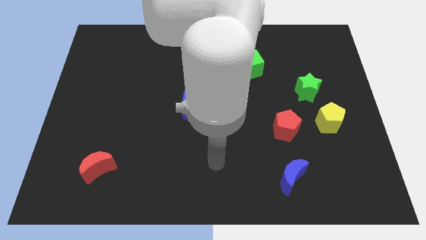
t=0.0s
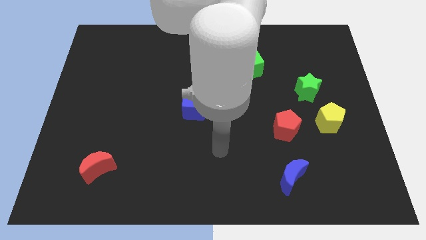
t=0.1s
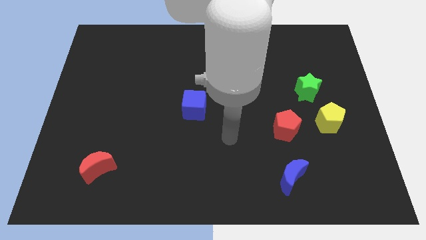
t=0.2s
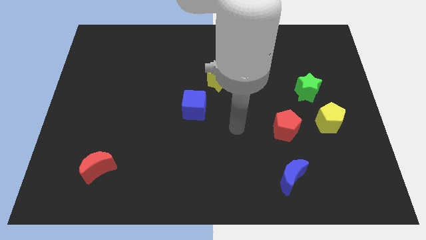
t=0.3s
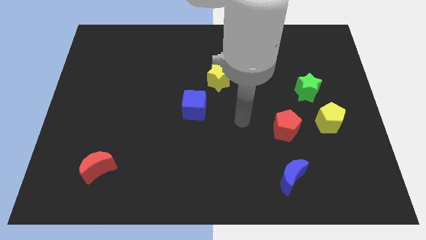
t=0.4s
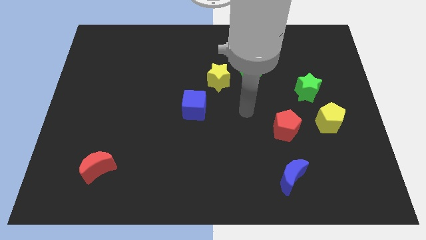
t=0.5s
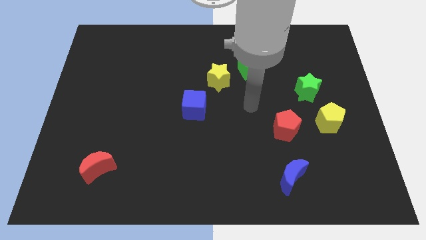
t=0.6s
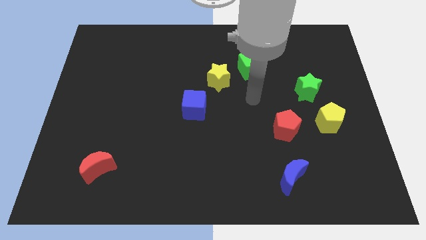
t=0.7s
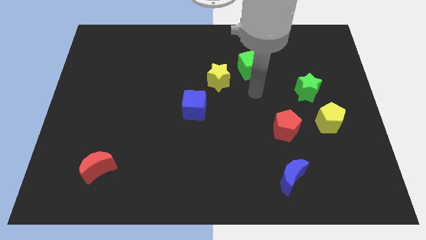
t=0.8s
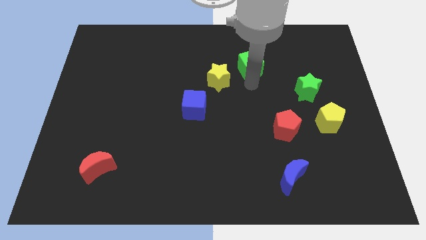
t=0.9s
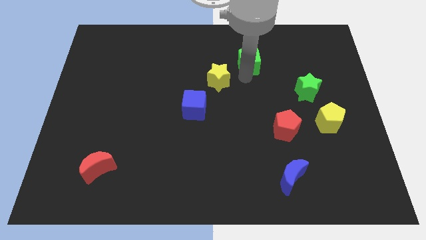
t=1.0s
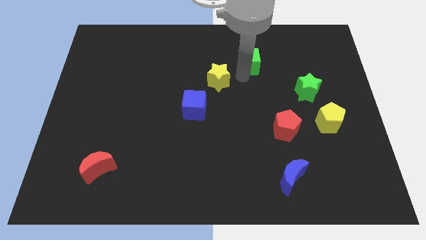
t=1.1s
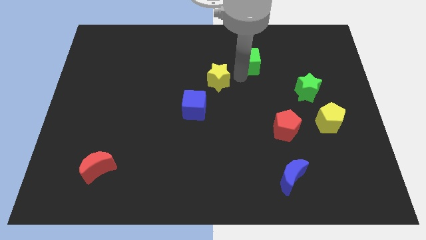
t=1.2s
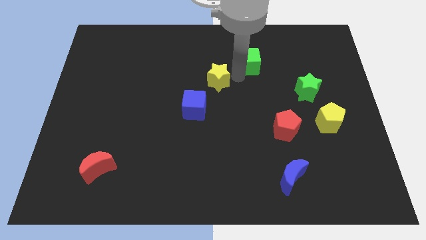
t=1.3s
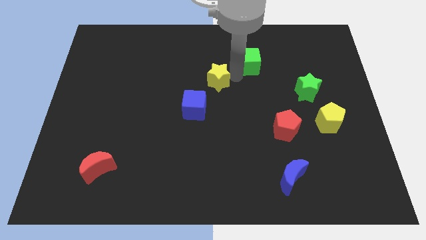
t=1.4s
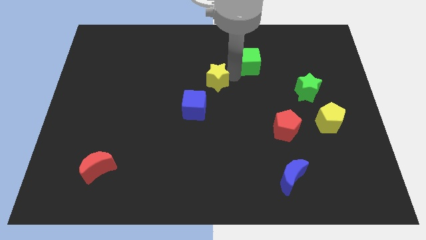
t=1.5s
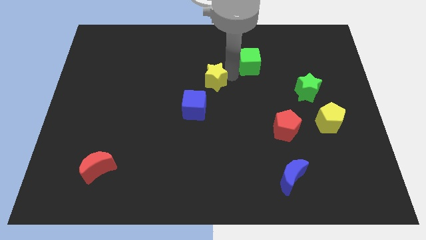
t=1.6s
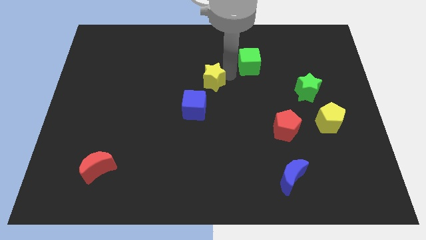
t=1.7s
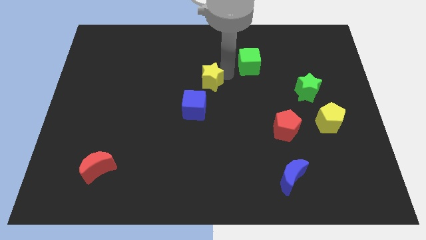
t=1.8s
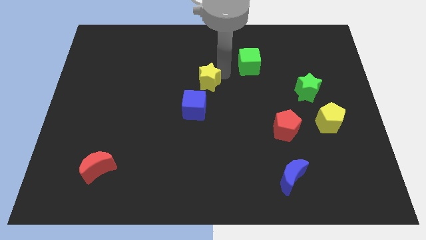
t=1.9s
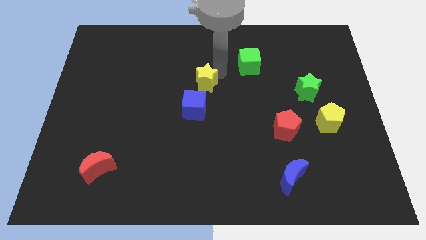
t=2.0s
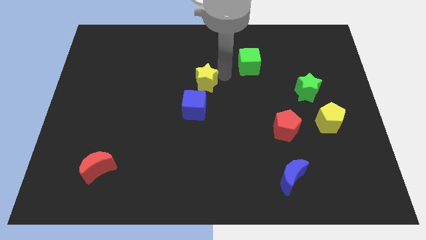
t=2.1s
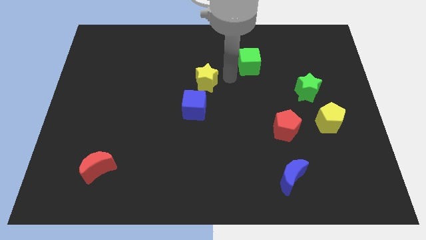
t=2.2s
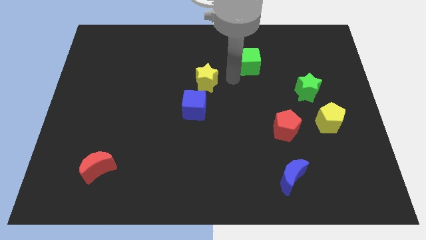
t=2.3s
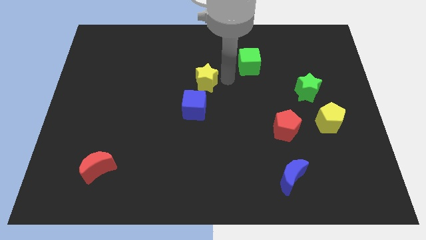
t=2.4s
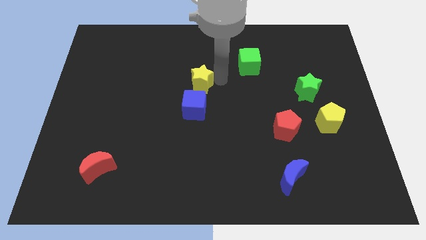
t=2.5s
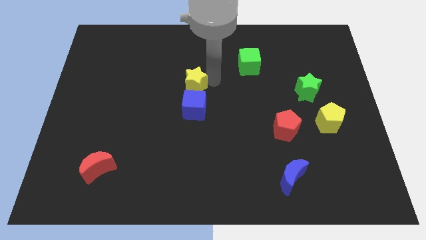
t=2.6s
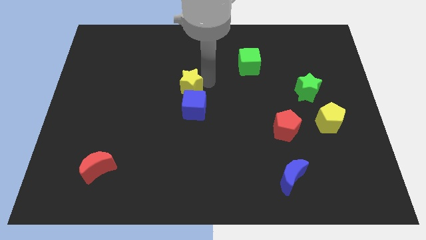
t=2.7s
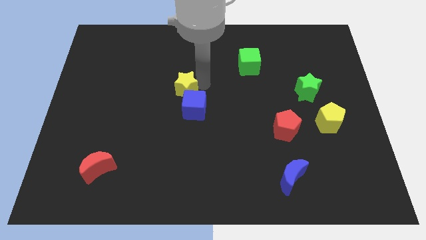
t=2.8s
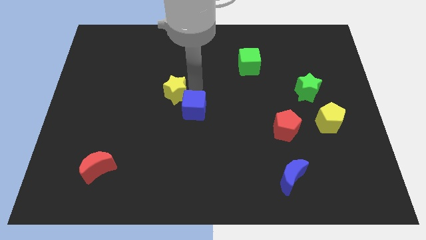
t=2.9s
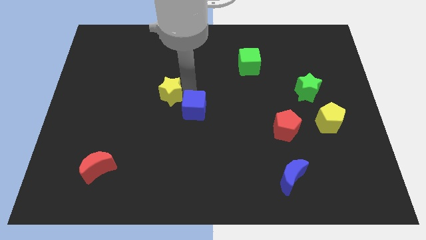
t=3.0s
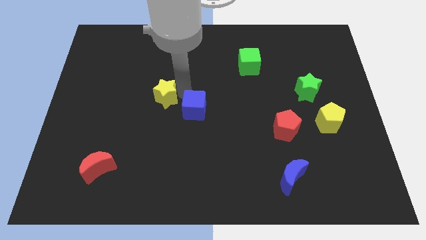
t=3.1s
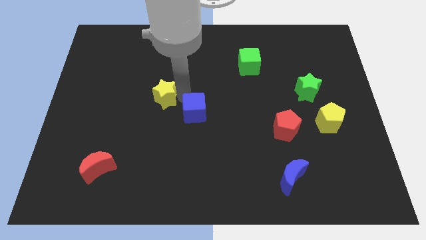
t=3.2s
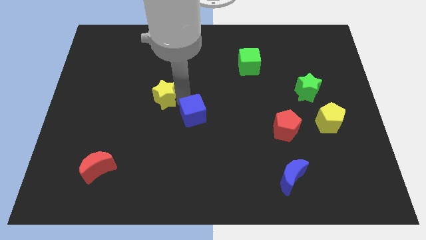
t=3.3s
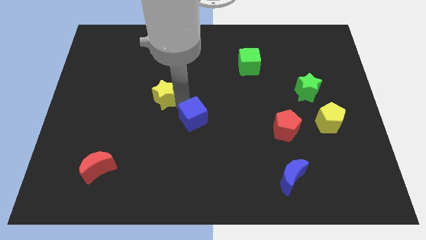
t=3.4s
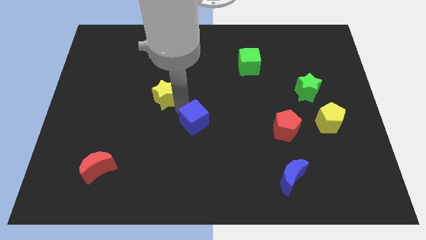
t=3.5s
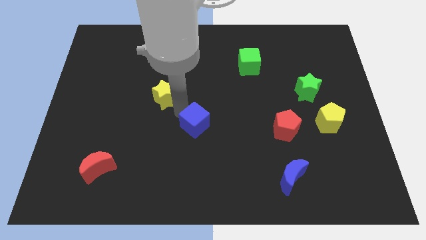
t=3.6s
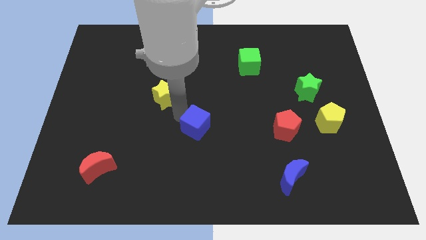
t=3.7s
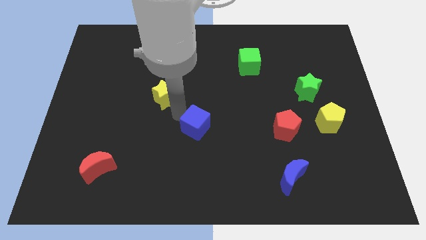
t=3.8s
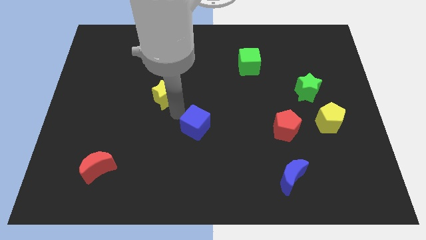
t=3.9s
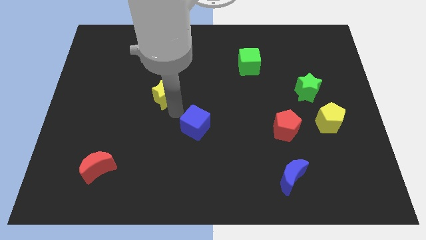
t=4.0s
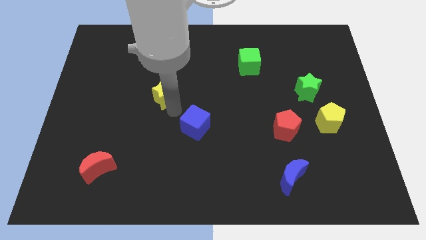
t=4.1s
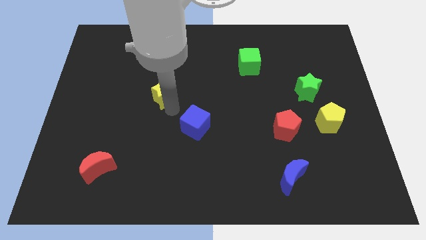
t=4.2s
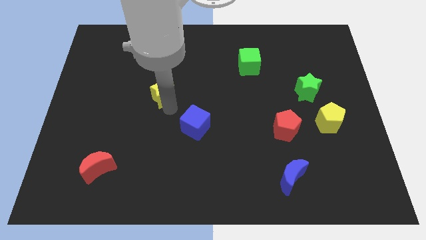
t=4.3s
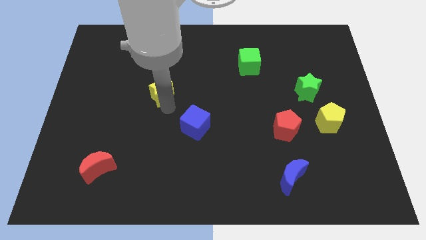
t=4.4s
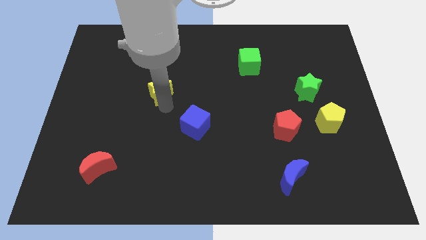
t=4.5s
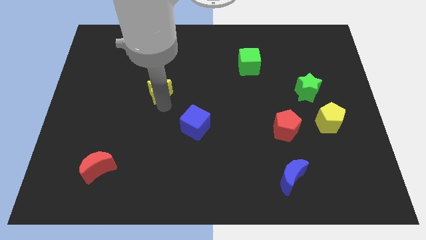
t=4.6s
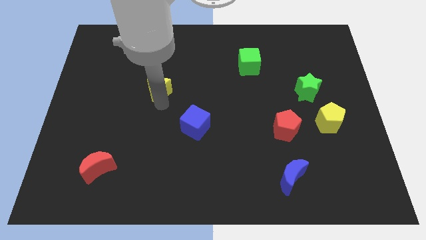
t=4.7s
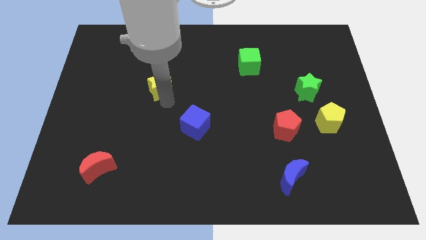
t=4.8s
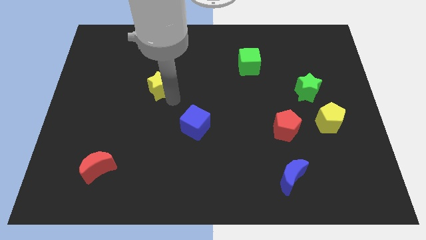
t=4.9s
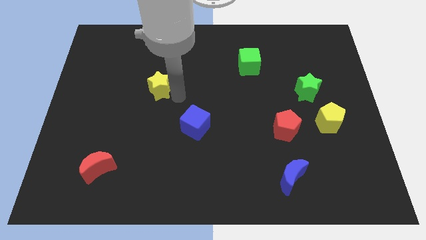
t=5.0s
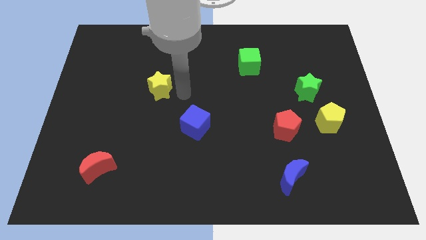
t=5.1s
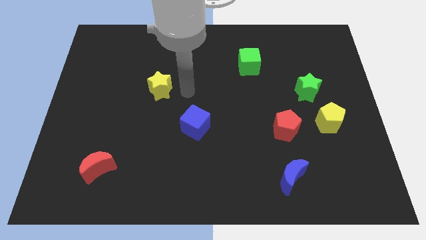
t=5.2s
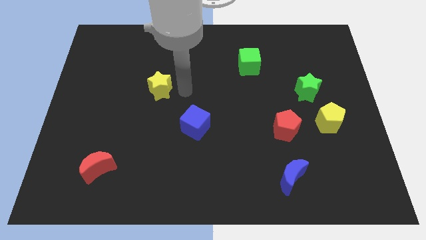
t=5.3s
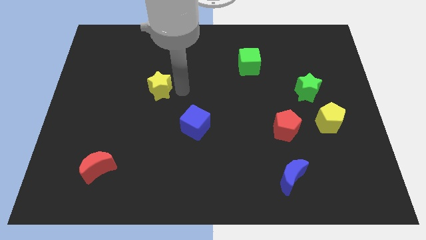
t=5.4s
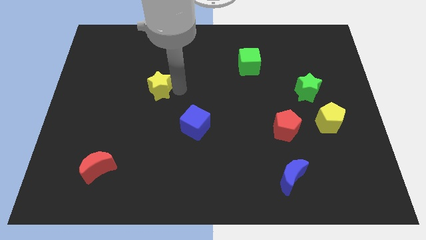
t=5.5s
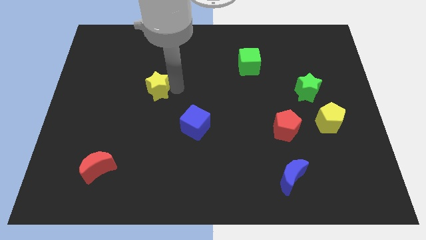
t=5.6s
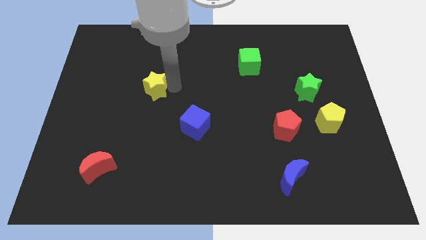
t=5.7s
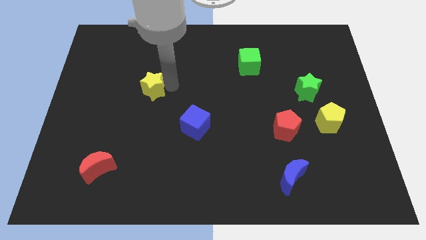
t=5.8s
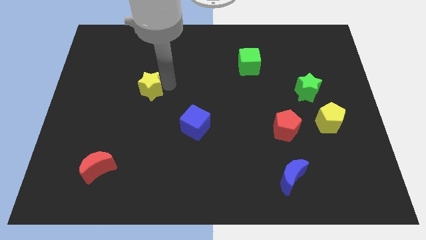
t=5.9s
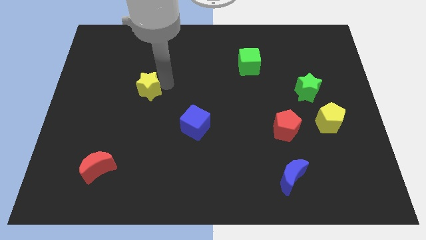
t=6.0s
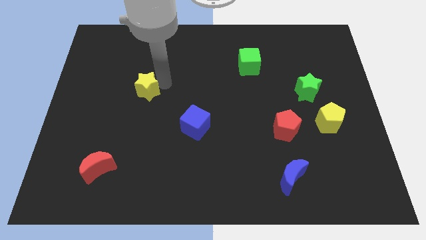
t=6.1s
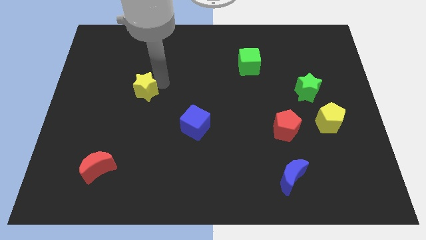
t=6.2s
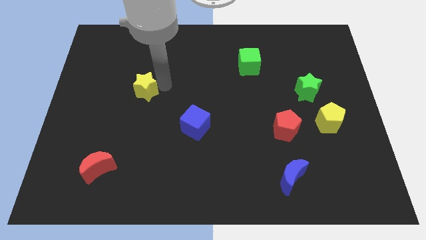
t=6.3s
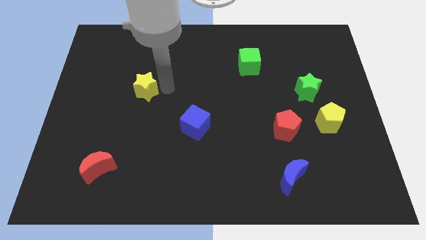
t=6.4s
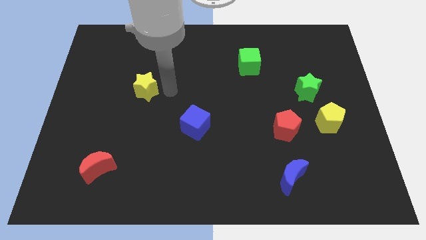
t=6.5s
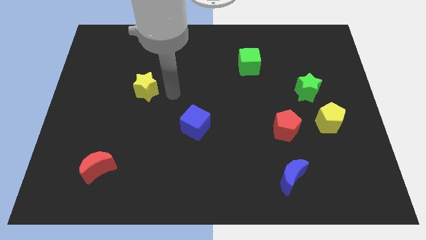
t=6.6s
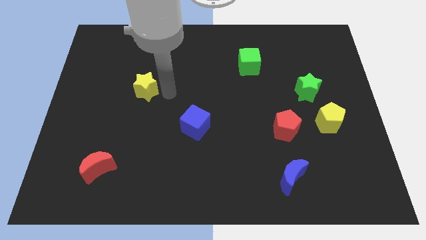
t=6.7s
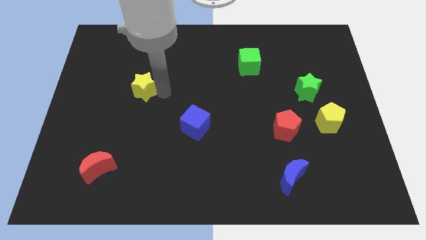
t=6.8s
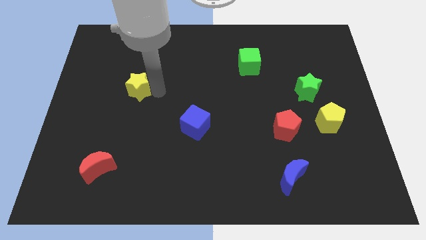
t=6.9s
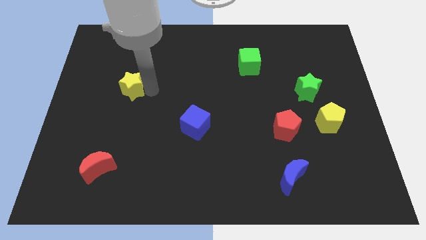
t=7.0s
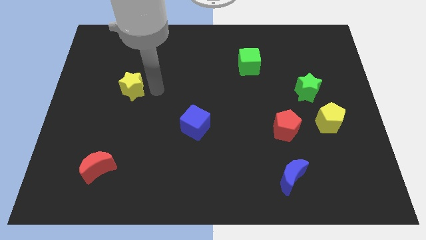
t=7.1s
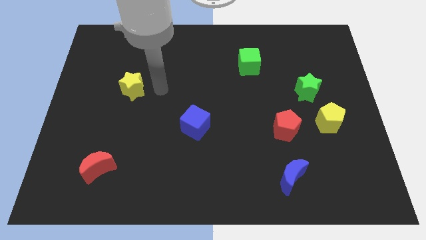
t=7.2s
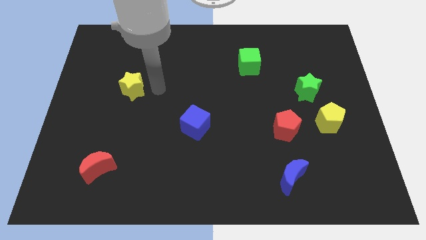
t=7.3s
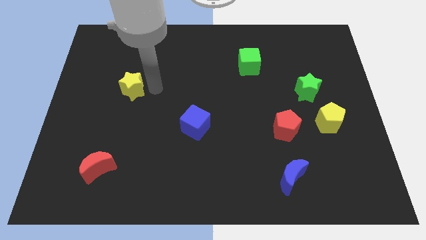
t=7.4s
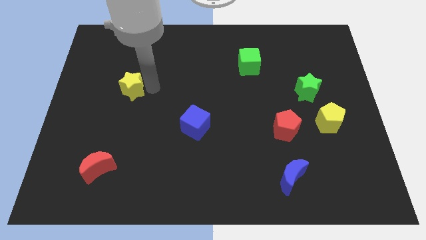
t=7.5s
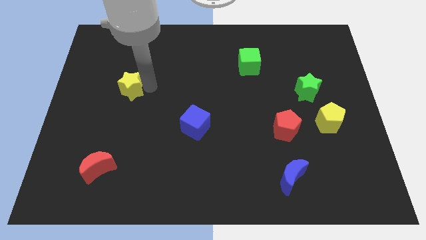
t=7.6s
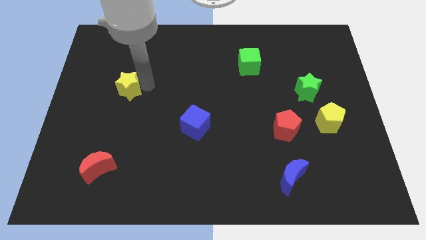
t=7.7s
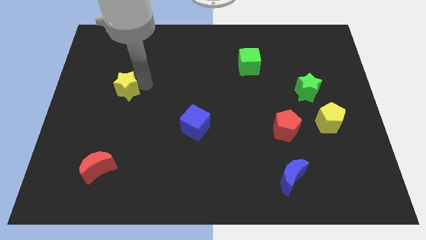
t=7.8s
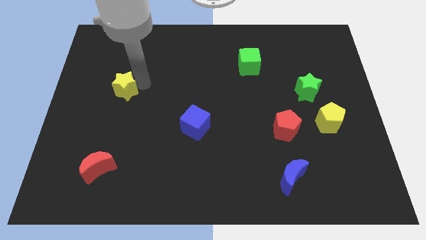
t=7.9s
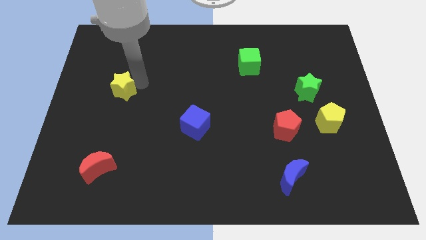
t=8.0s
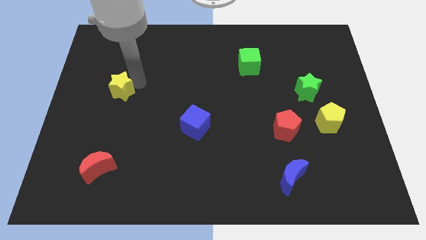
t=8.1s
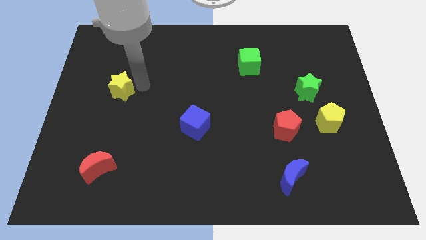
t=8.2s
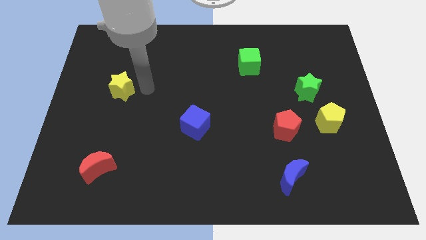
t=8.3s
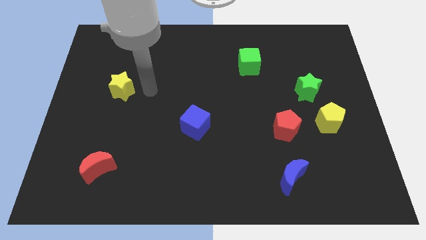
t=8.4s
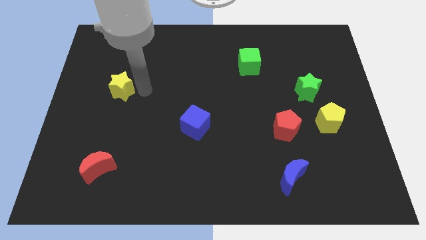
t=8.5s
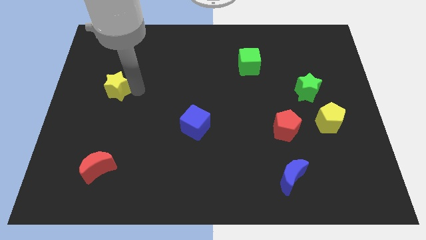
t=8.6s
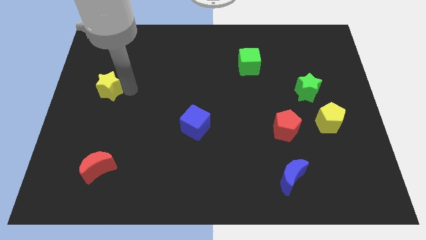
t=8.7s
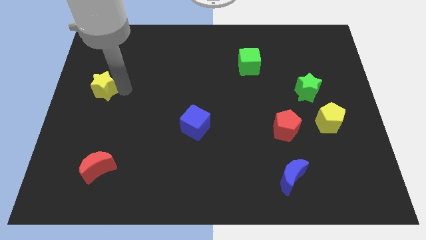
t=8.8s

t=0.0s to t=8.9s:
put the yellow star to the left side of the board
